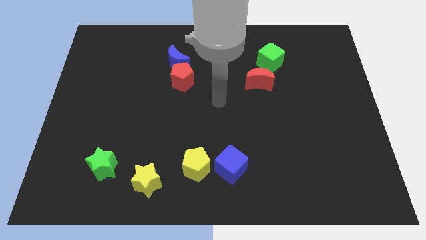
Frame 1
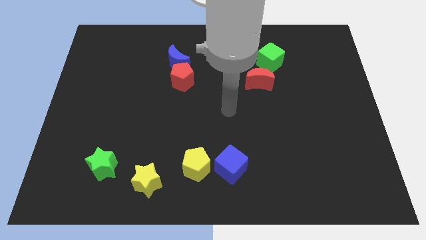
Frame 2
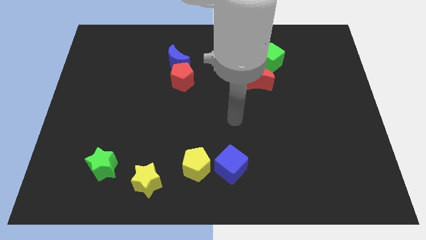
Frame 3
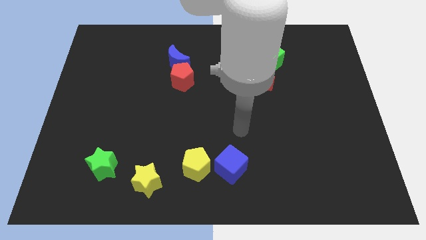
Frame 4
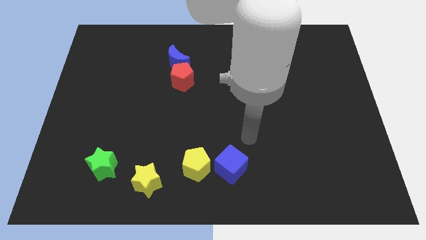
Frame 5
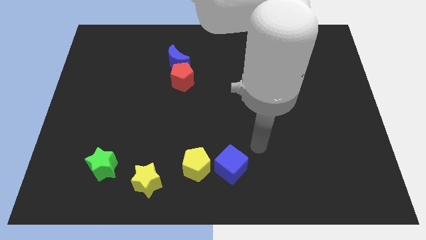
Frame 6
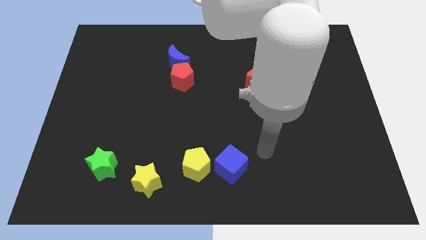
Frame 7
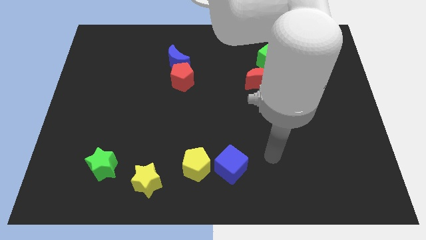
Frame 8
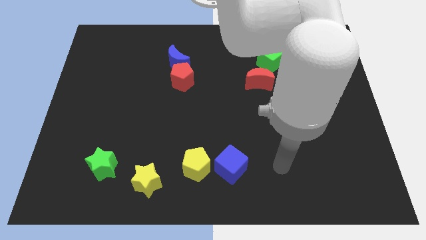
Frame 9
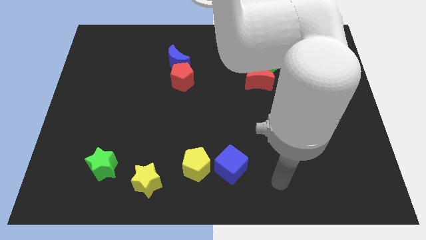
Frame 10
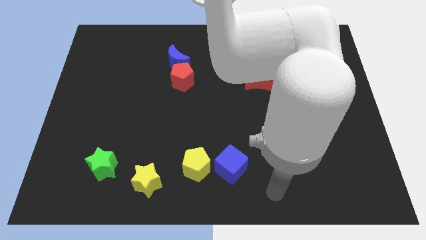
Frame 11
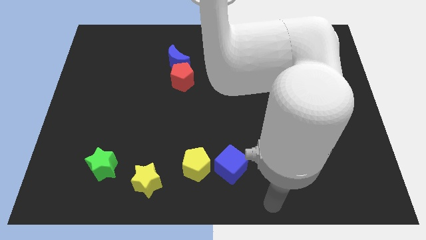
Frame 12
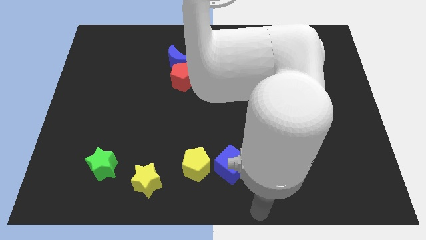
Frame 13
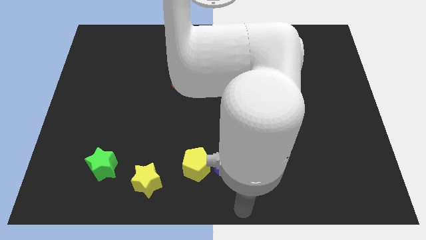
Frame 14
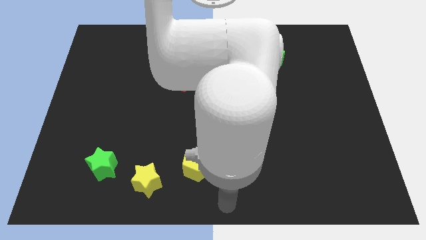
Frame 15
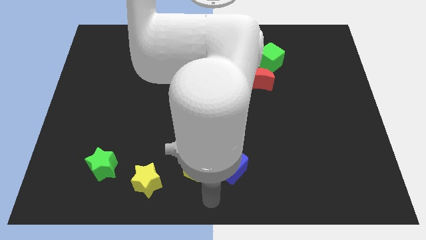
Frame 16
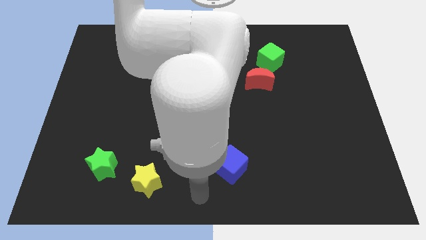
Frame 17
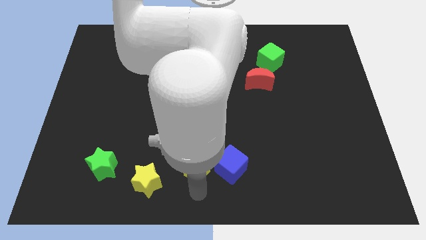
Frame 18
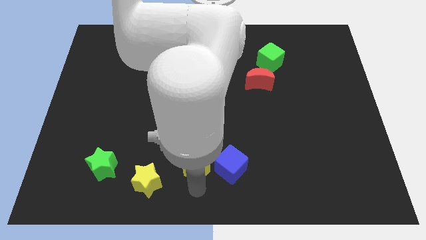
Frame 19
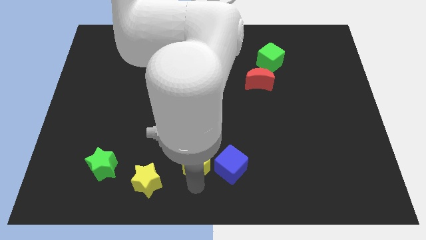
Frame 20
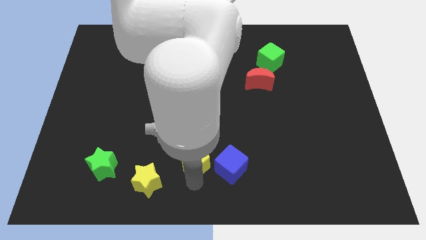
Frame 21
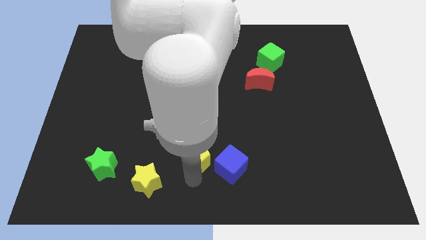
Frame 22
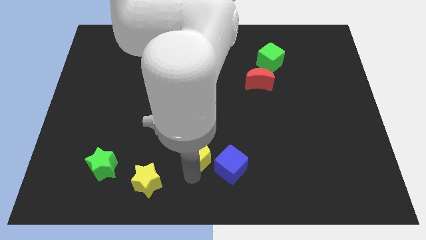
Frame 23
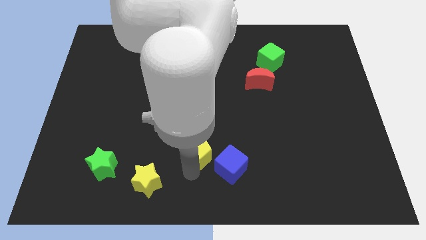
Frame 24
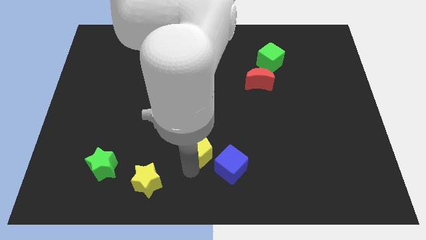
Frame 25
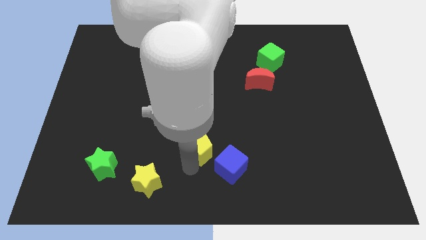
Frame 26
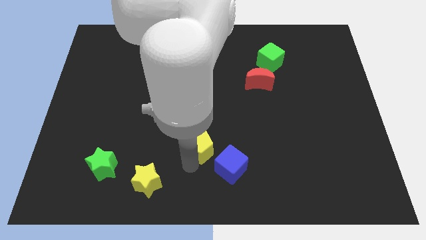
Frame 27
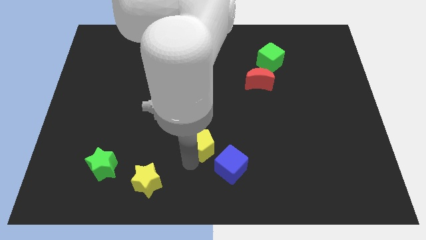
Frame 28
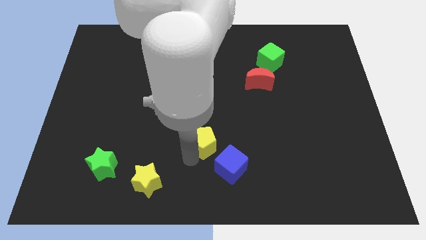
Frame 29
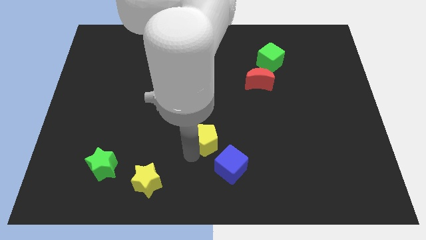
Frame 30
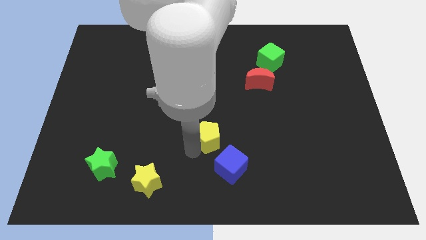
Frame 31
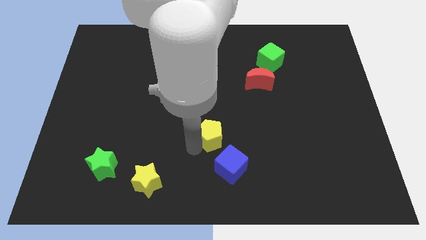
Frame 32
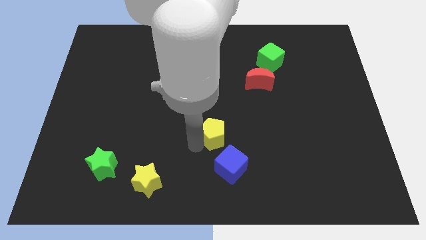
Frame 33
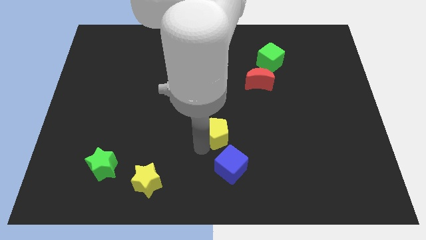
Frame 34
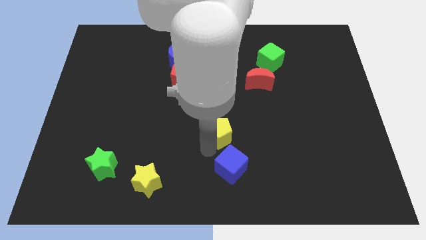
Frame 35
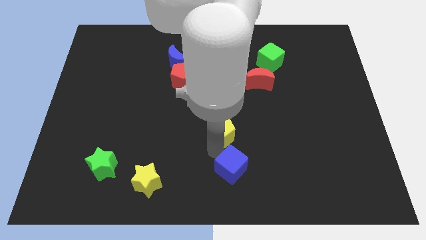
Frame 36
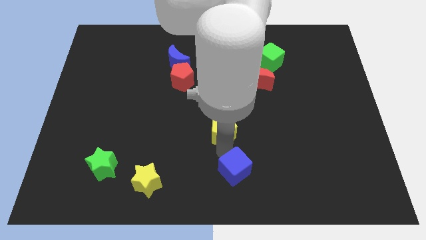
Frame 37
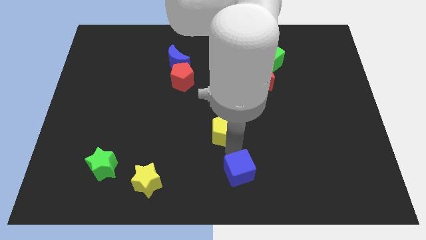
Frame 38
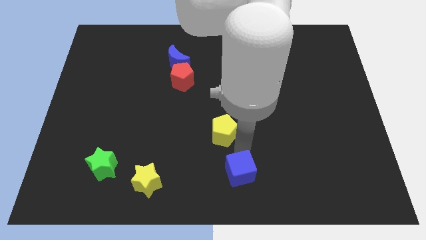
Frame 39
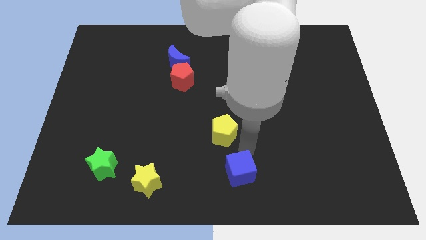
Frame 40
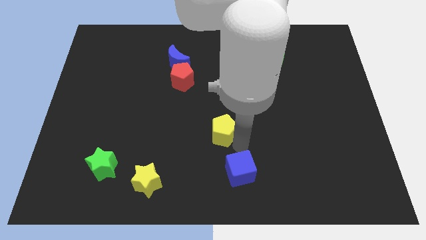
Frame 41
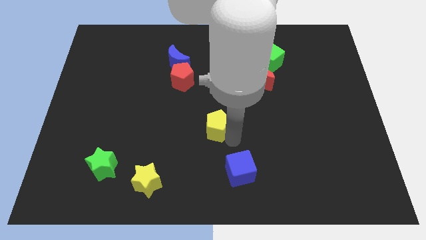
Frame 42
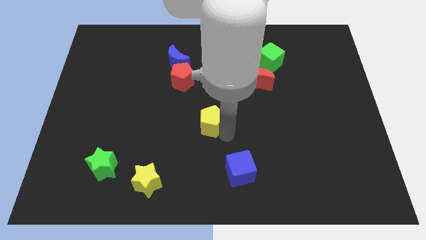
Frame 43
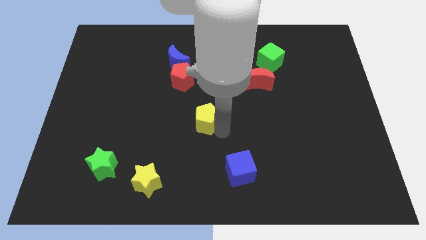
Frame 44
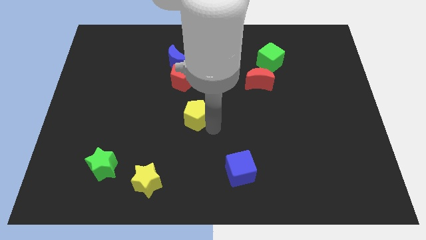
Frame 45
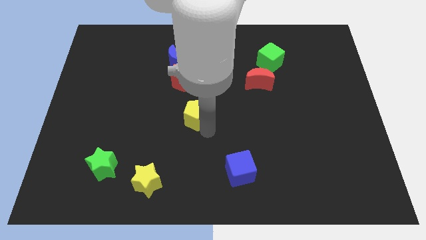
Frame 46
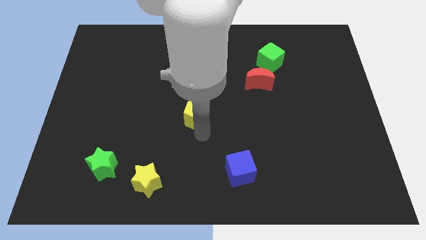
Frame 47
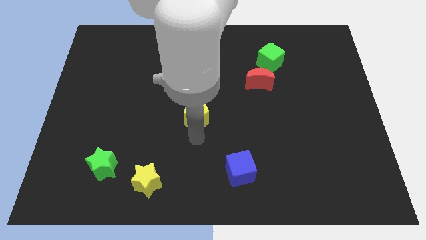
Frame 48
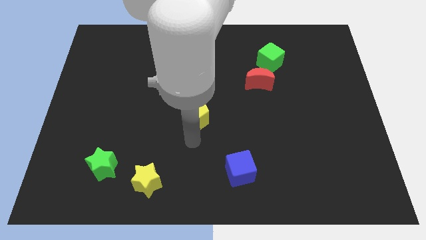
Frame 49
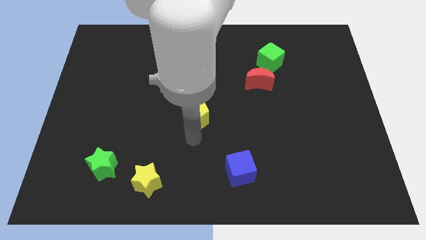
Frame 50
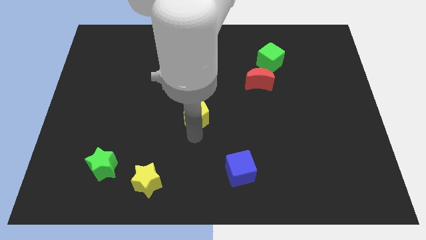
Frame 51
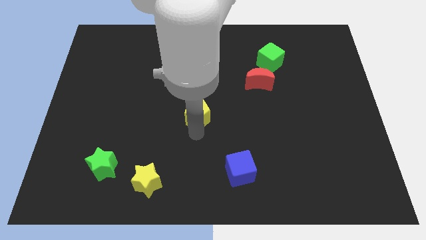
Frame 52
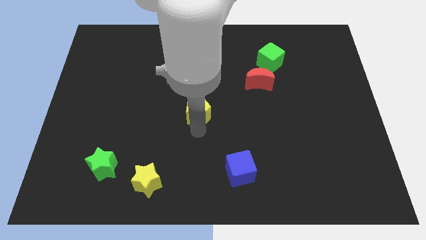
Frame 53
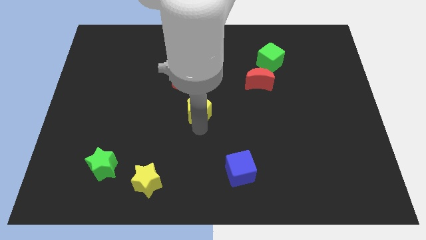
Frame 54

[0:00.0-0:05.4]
push the yellow pentagon diagonally down and to the right of the red pentagon

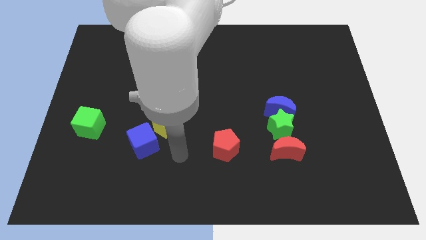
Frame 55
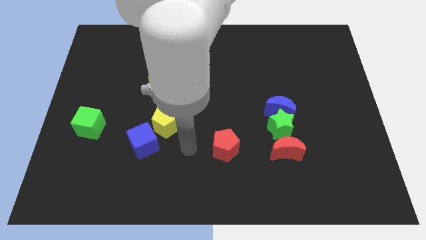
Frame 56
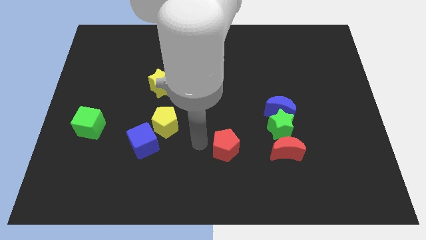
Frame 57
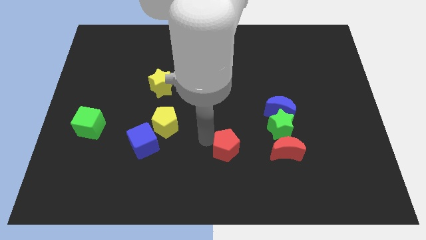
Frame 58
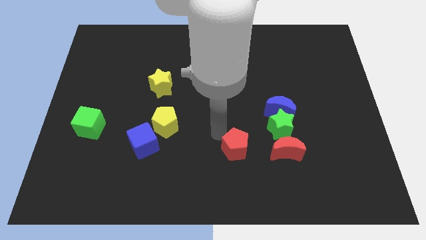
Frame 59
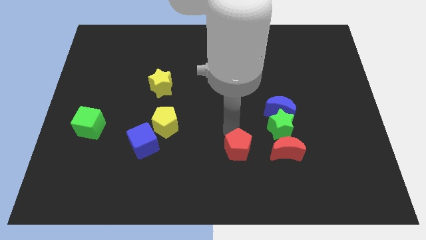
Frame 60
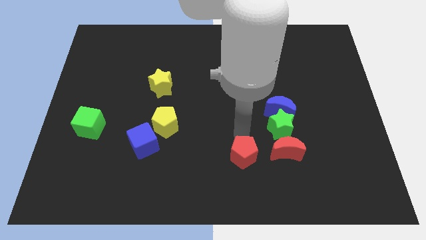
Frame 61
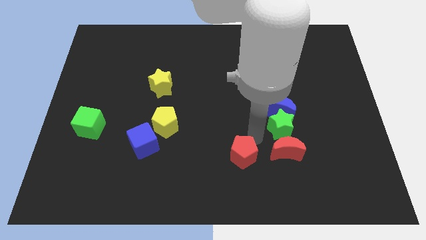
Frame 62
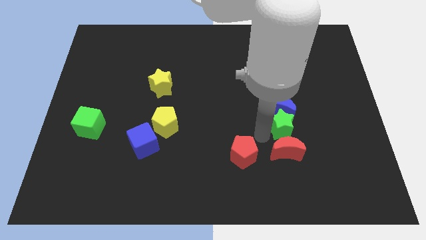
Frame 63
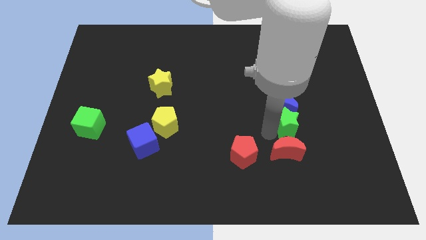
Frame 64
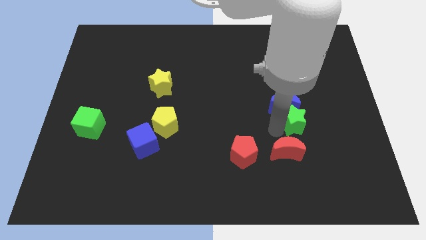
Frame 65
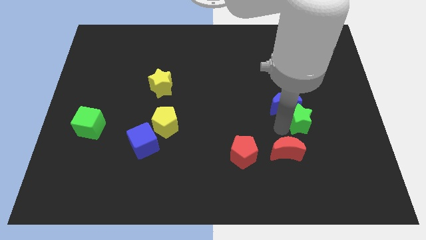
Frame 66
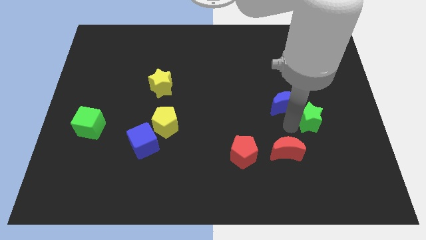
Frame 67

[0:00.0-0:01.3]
move the green star to the right side of the blue moon

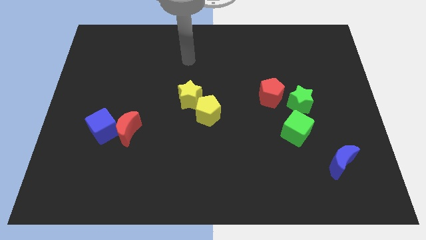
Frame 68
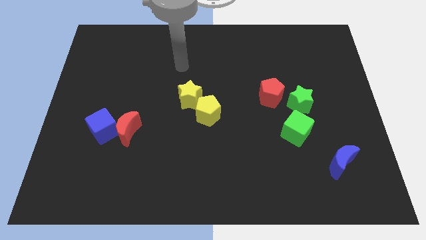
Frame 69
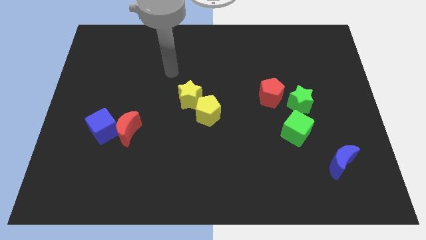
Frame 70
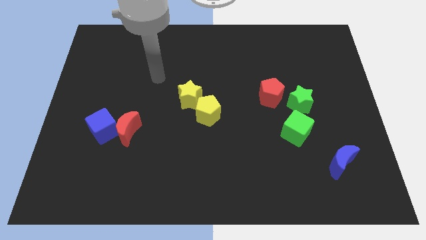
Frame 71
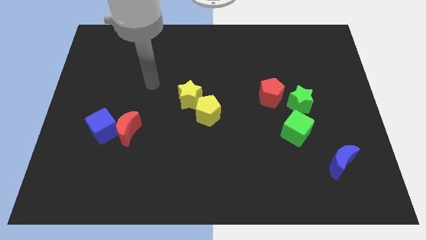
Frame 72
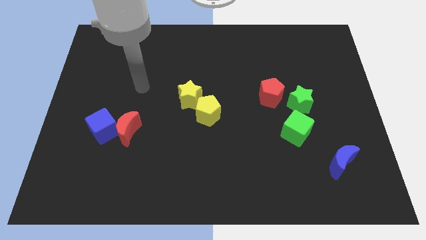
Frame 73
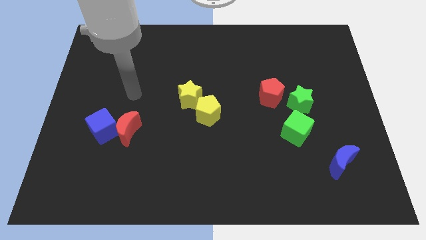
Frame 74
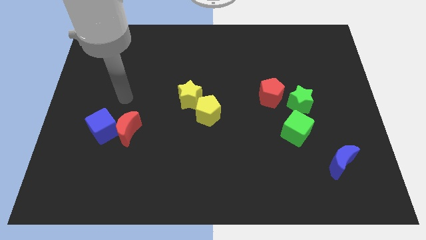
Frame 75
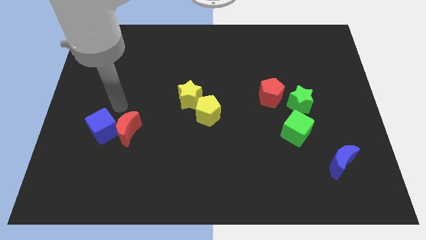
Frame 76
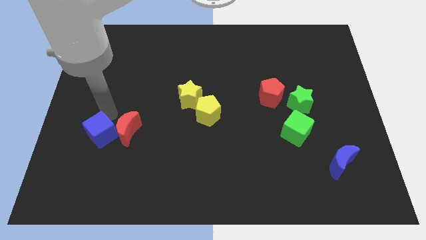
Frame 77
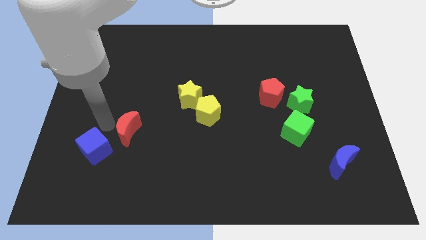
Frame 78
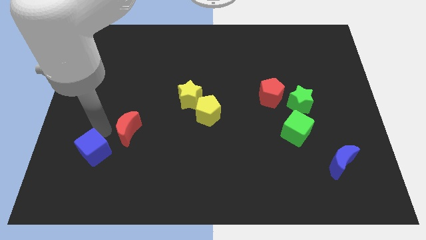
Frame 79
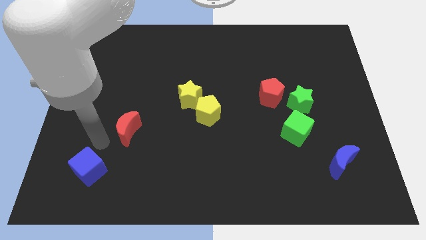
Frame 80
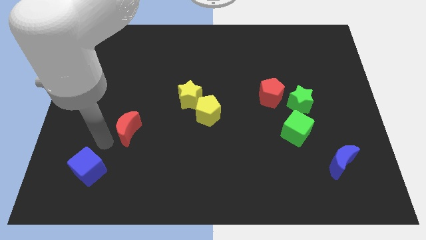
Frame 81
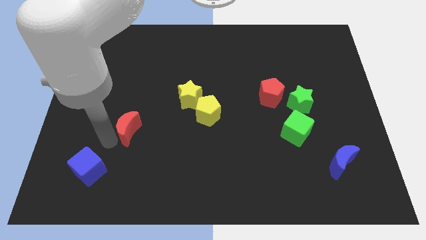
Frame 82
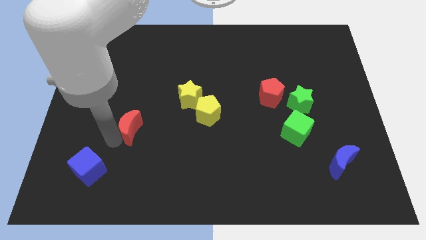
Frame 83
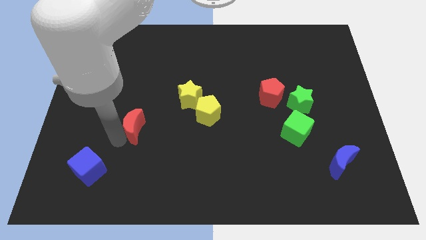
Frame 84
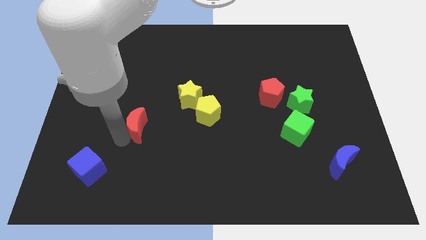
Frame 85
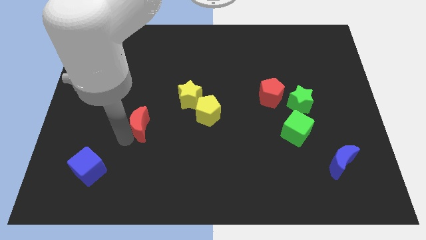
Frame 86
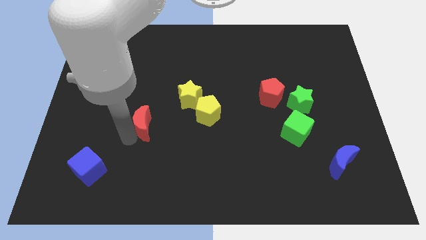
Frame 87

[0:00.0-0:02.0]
slide the red moon just left of the yellow pentagon
